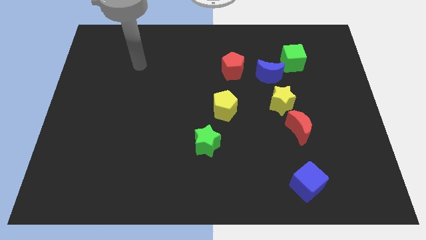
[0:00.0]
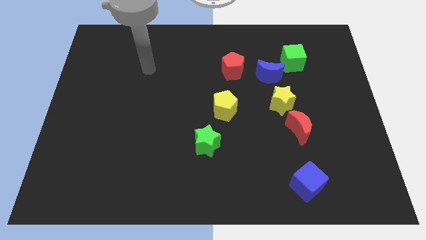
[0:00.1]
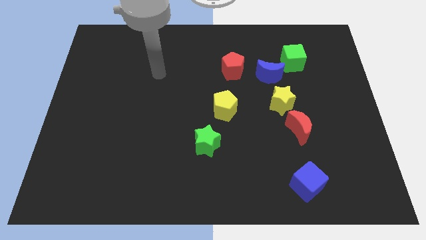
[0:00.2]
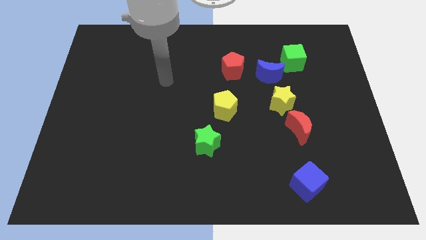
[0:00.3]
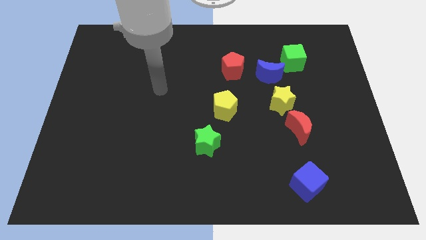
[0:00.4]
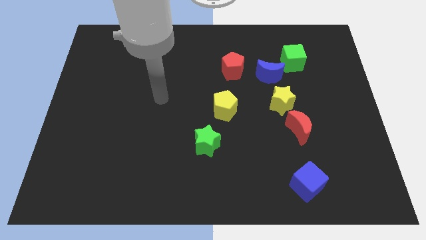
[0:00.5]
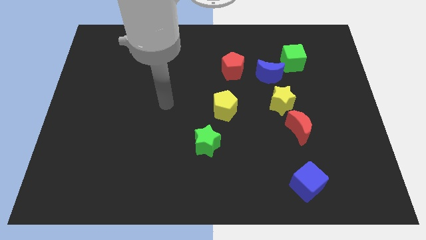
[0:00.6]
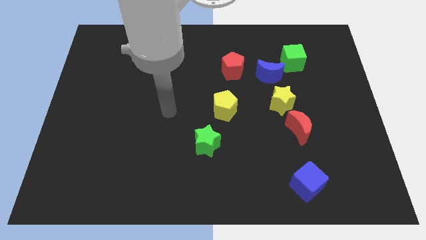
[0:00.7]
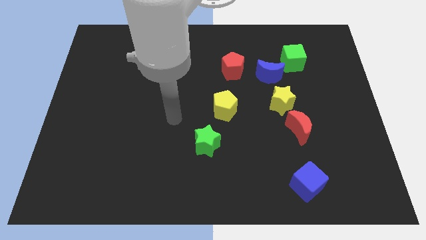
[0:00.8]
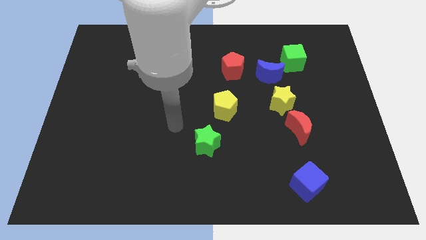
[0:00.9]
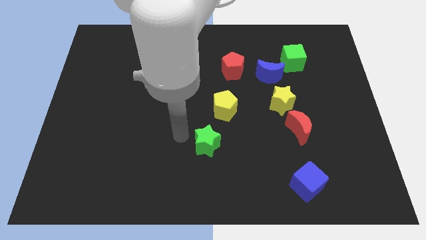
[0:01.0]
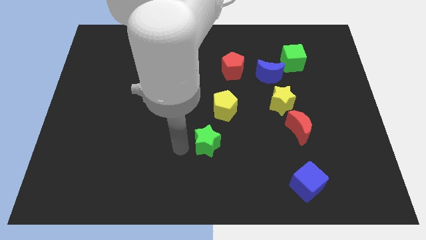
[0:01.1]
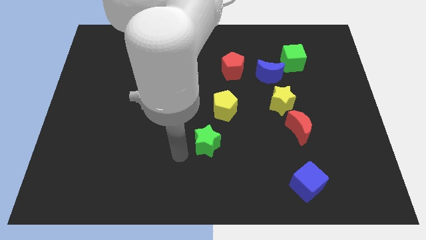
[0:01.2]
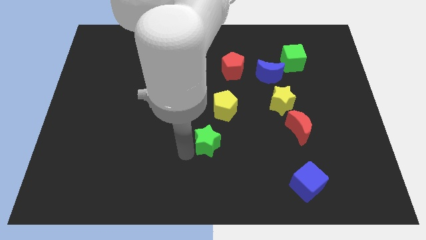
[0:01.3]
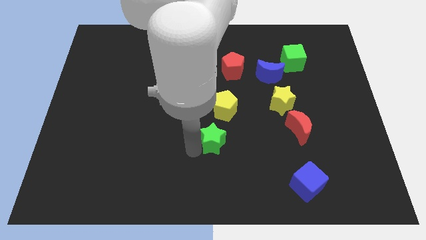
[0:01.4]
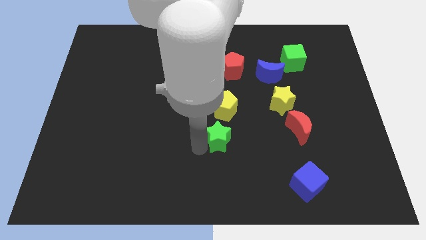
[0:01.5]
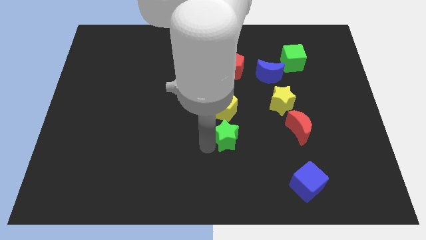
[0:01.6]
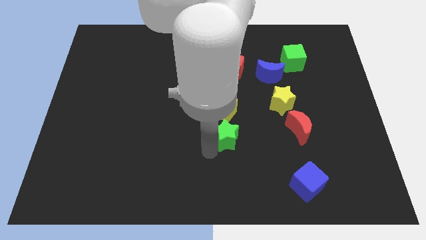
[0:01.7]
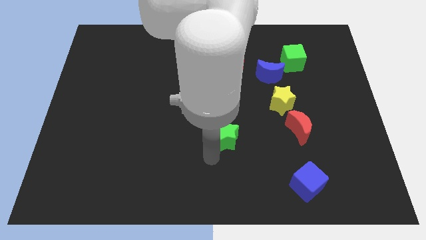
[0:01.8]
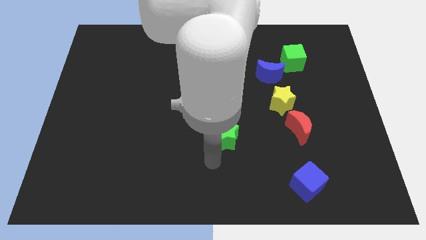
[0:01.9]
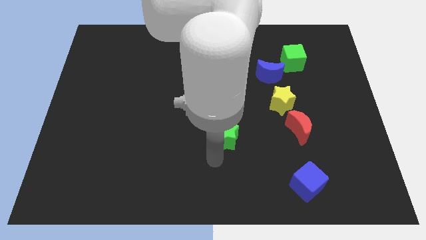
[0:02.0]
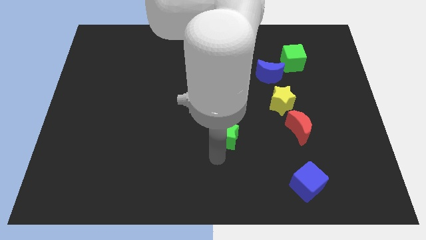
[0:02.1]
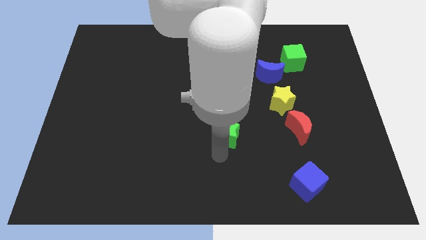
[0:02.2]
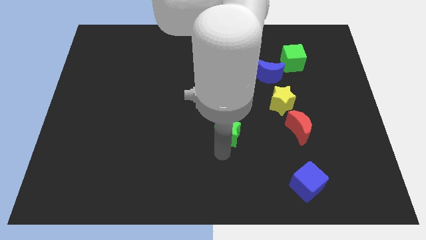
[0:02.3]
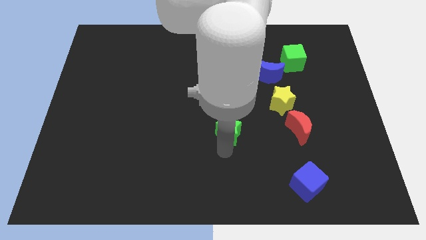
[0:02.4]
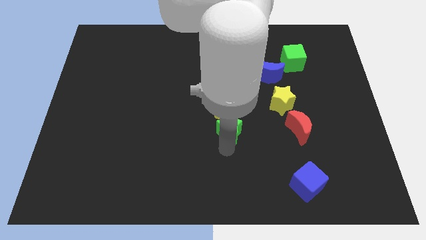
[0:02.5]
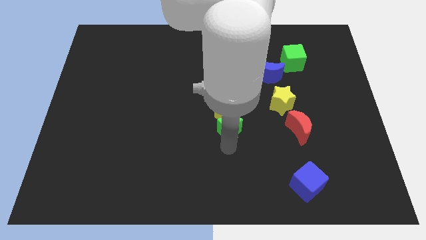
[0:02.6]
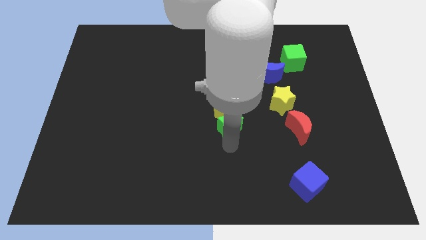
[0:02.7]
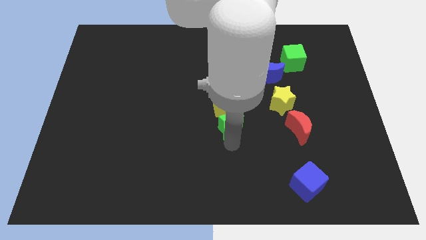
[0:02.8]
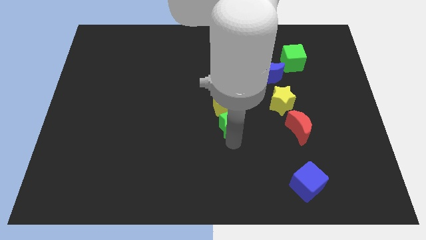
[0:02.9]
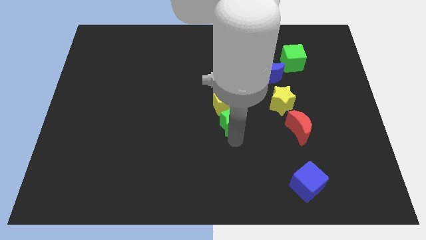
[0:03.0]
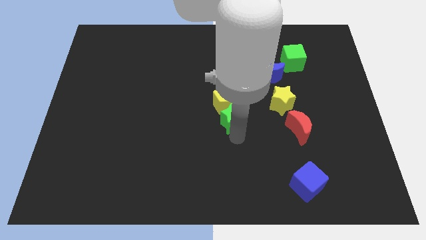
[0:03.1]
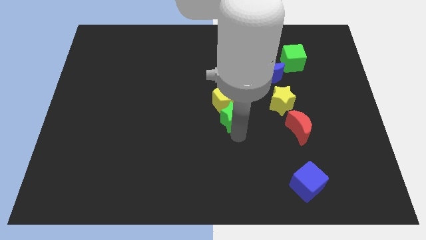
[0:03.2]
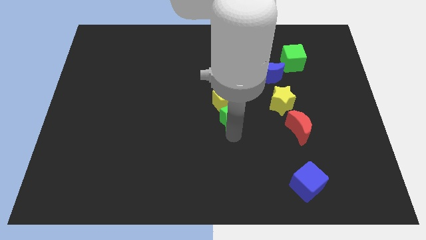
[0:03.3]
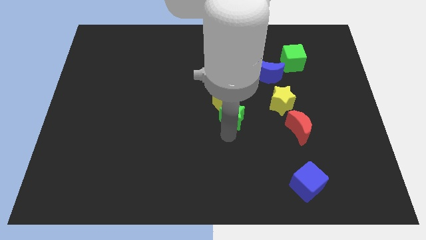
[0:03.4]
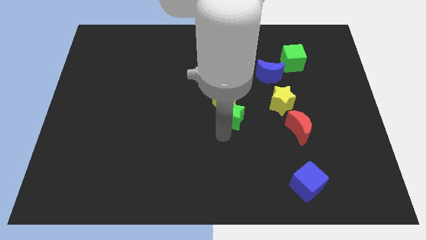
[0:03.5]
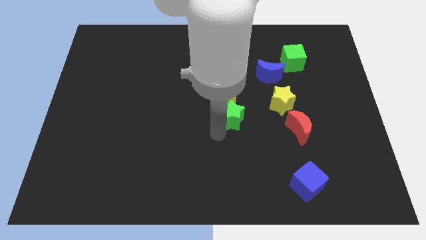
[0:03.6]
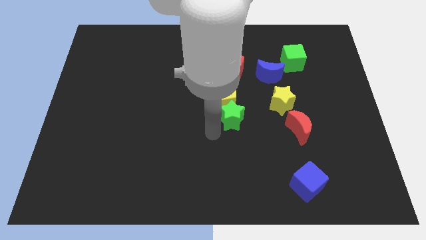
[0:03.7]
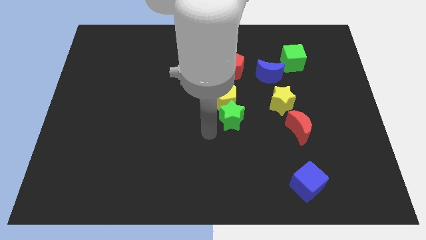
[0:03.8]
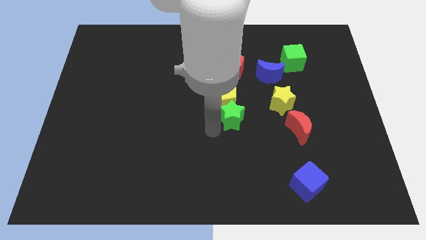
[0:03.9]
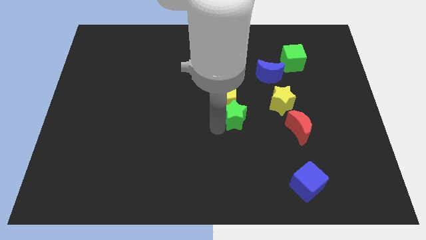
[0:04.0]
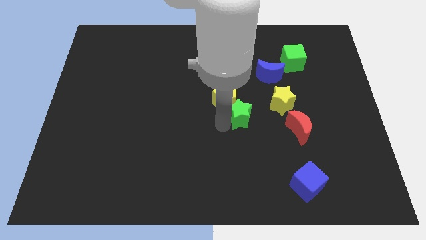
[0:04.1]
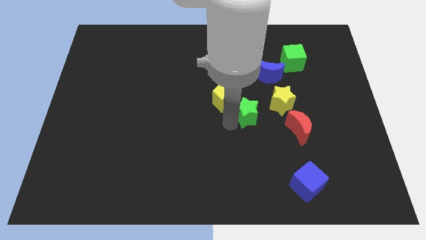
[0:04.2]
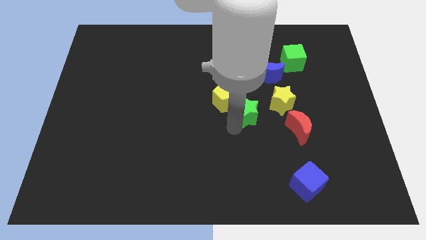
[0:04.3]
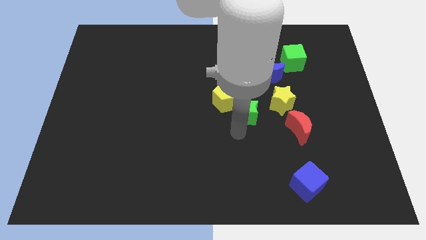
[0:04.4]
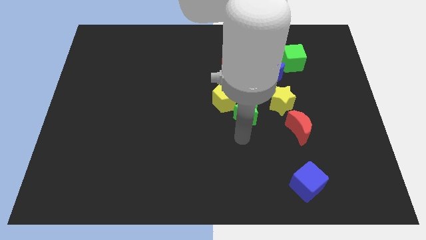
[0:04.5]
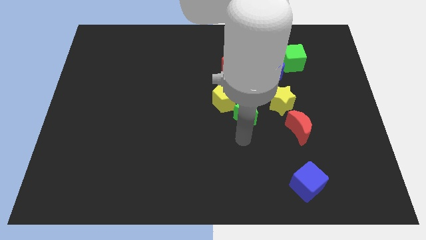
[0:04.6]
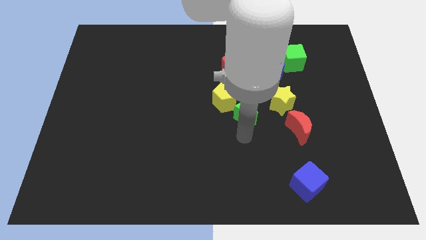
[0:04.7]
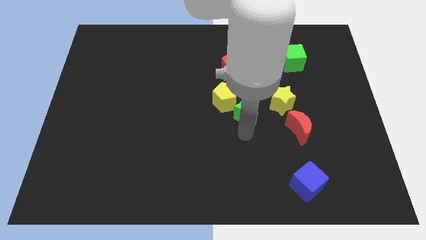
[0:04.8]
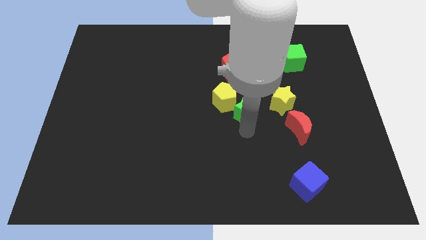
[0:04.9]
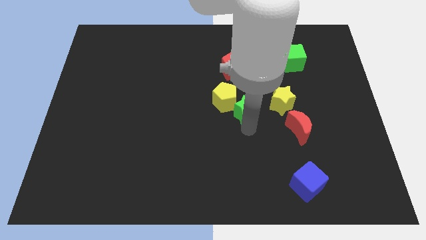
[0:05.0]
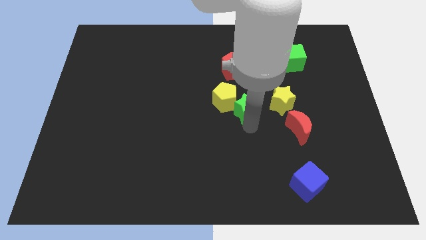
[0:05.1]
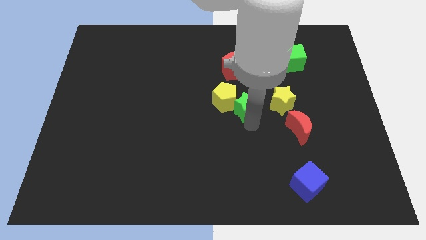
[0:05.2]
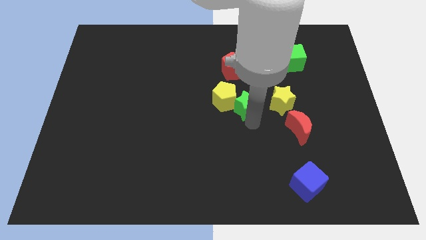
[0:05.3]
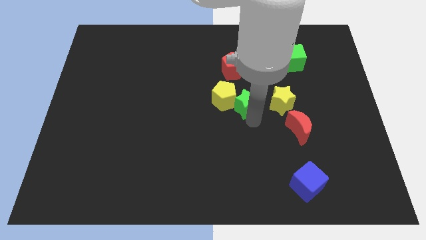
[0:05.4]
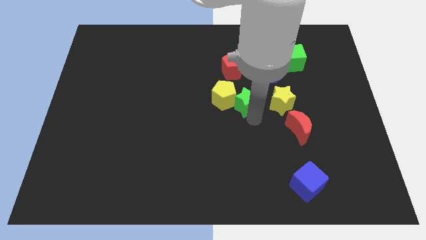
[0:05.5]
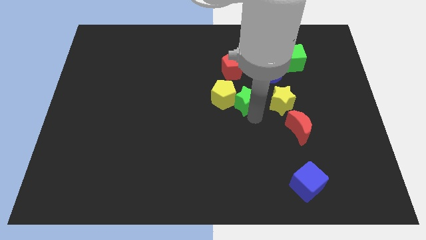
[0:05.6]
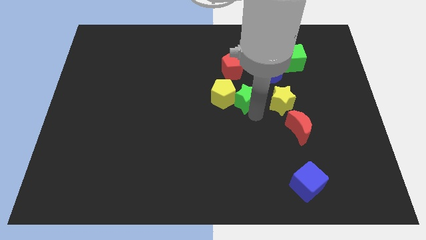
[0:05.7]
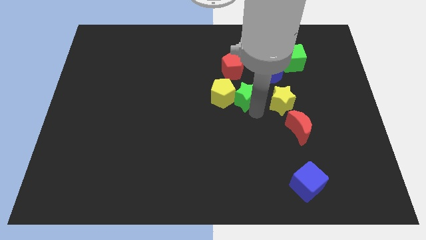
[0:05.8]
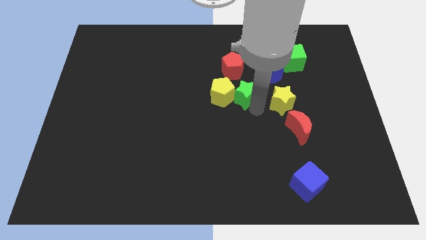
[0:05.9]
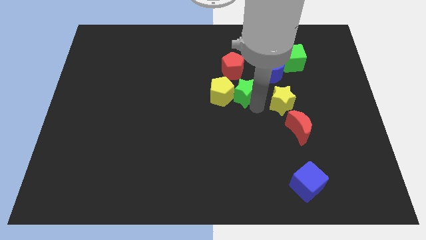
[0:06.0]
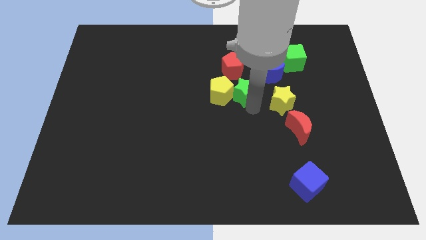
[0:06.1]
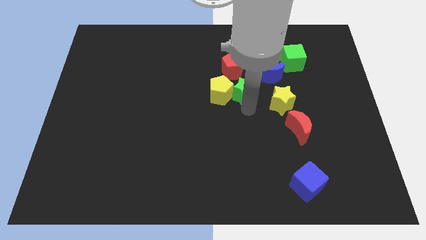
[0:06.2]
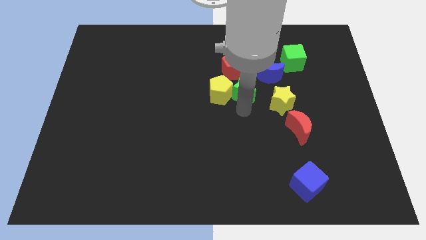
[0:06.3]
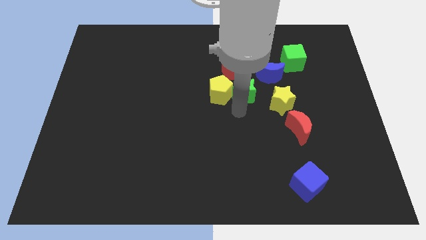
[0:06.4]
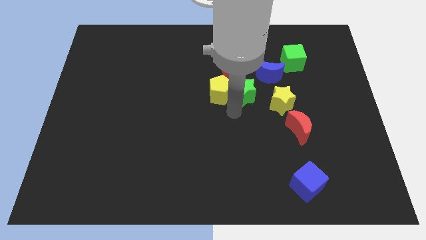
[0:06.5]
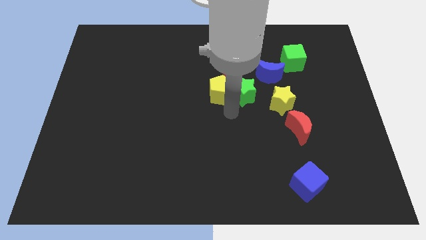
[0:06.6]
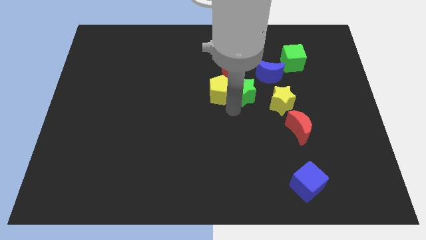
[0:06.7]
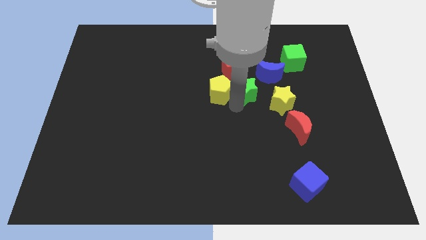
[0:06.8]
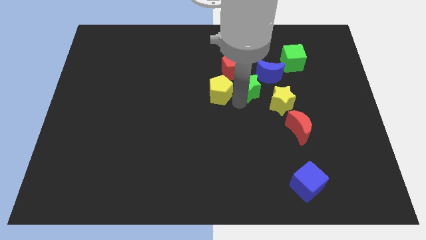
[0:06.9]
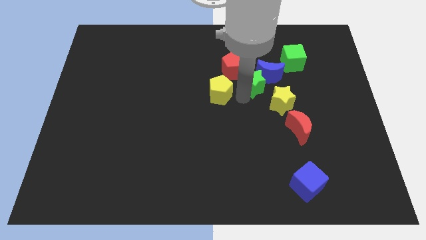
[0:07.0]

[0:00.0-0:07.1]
push the green star towards the blue moon

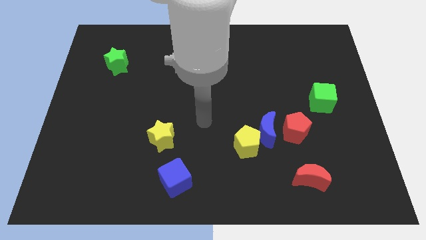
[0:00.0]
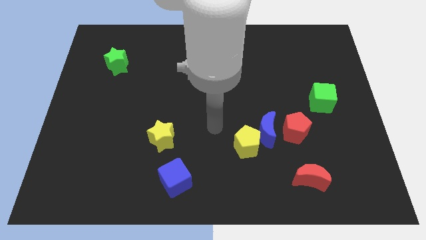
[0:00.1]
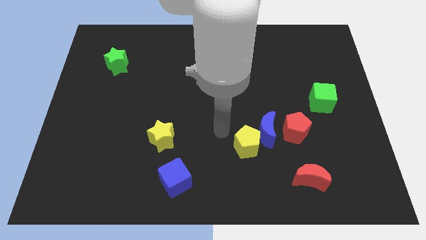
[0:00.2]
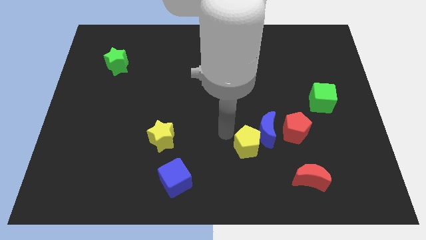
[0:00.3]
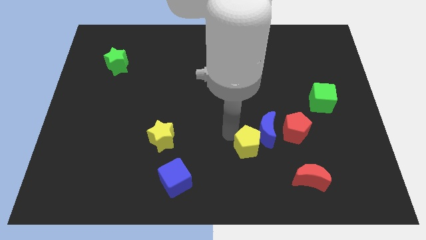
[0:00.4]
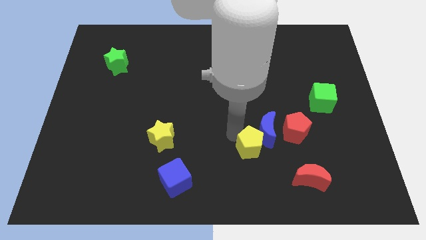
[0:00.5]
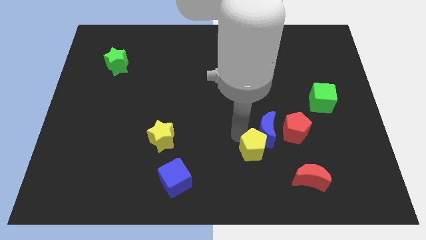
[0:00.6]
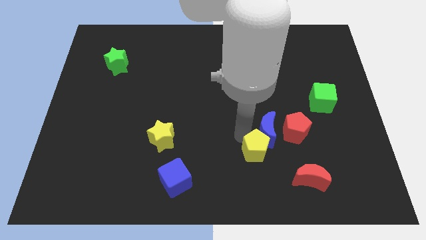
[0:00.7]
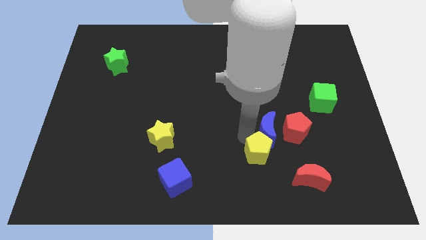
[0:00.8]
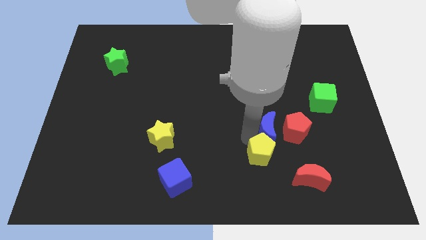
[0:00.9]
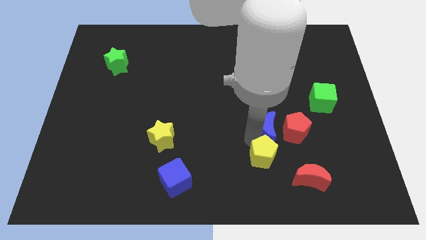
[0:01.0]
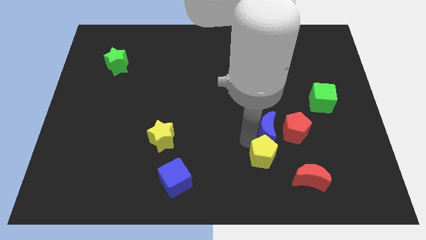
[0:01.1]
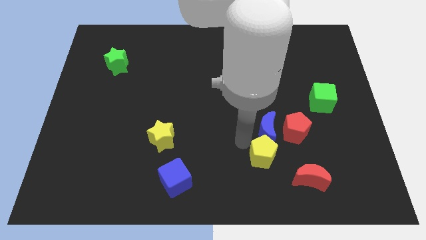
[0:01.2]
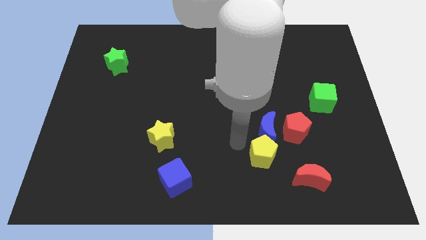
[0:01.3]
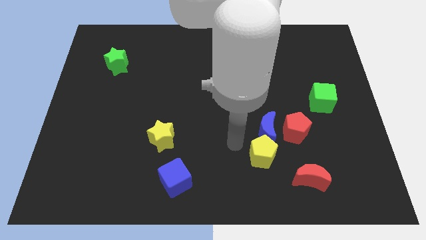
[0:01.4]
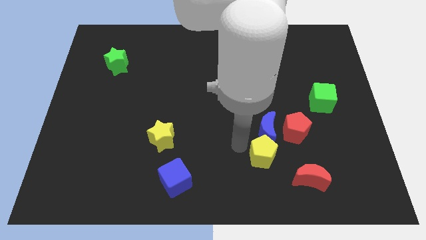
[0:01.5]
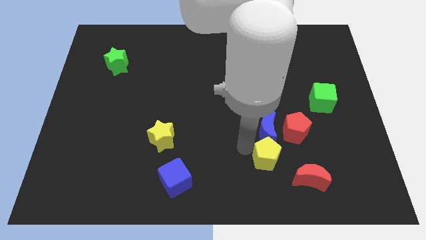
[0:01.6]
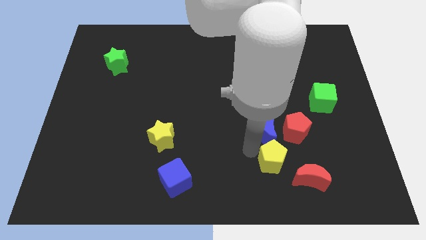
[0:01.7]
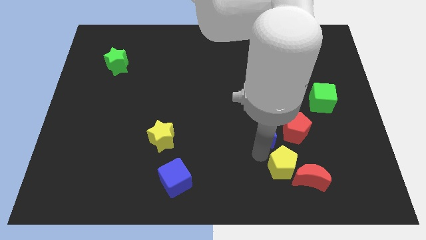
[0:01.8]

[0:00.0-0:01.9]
put the yellow pentagon next to the red moon
